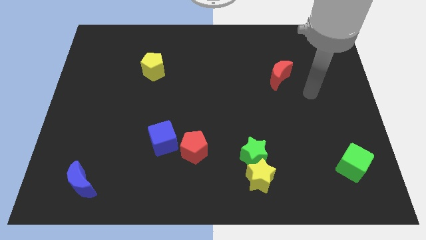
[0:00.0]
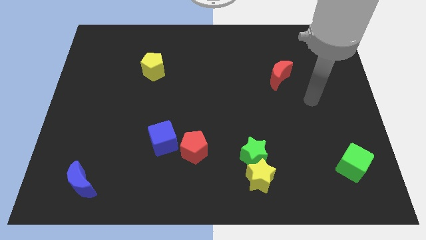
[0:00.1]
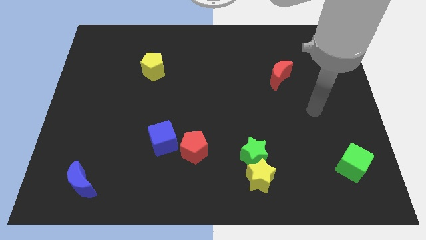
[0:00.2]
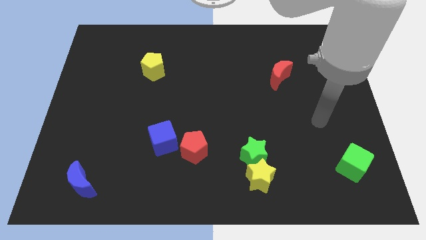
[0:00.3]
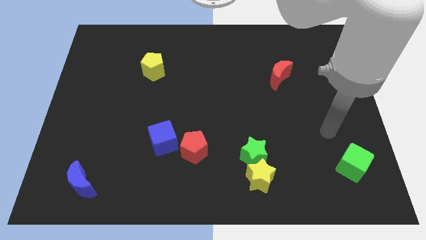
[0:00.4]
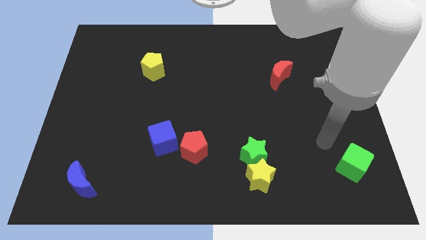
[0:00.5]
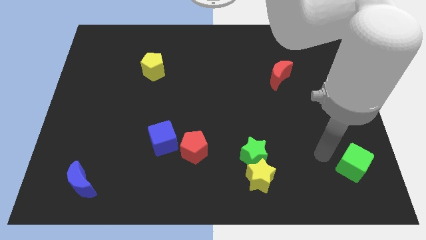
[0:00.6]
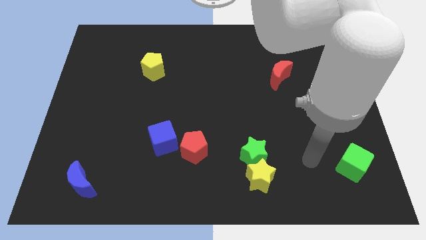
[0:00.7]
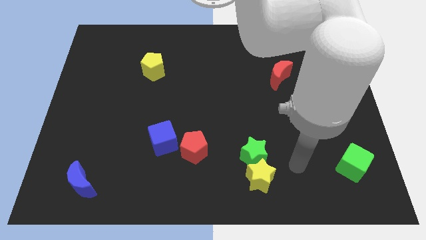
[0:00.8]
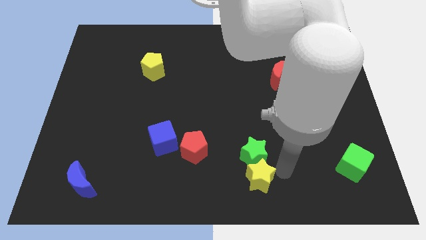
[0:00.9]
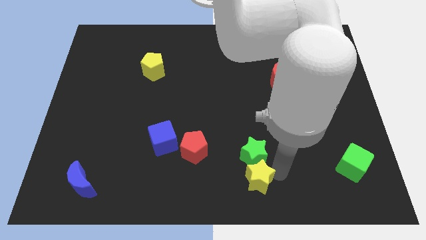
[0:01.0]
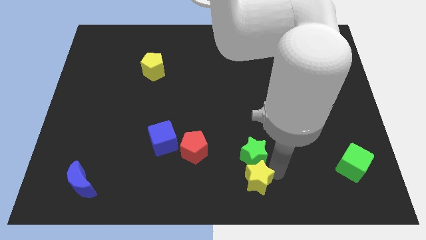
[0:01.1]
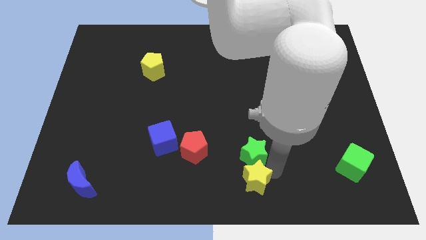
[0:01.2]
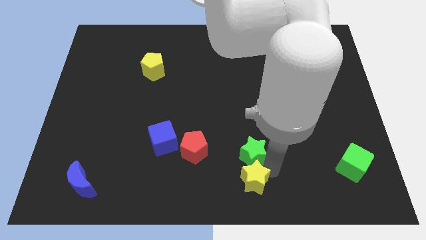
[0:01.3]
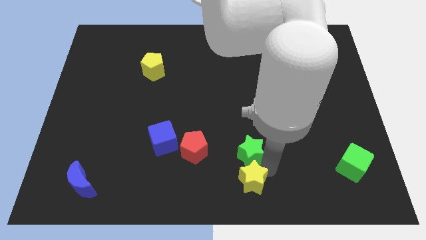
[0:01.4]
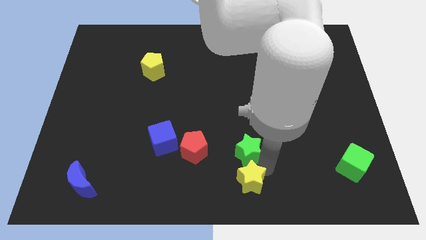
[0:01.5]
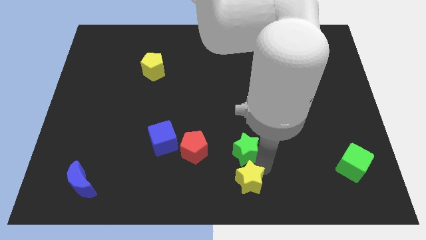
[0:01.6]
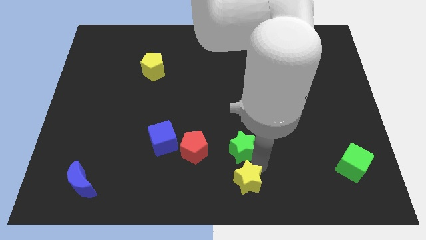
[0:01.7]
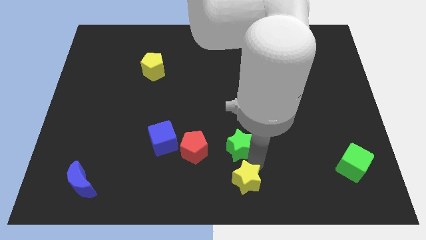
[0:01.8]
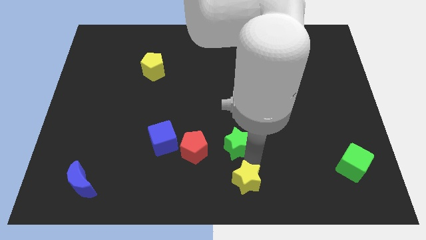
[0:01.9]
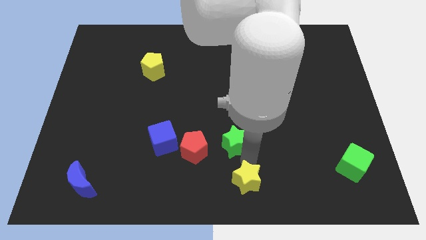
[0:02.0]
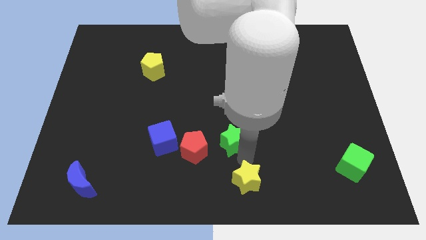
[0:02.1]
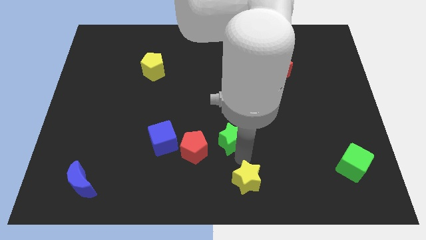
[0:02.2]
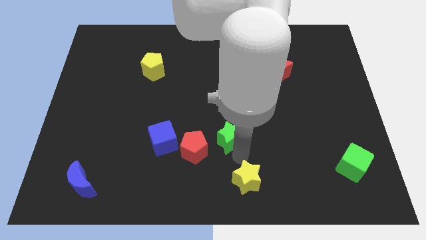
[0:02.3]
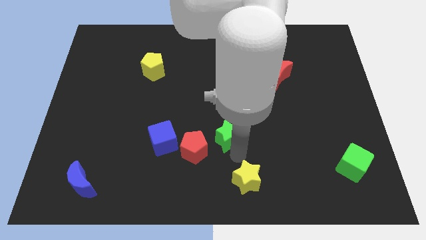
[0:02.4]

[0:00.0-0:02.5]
slightly push the green star diagonally up and left

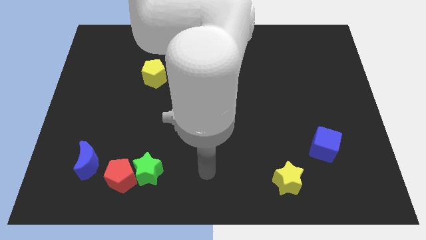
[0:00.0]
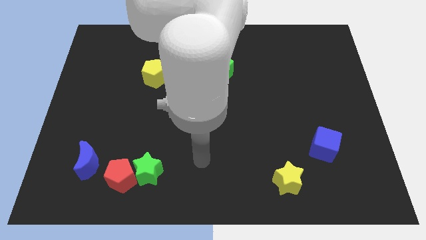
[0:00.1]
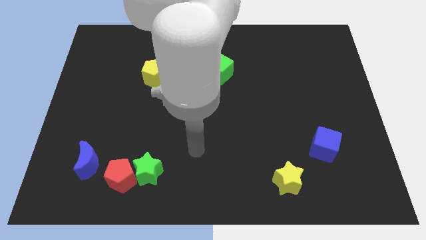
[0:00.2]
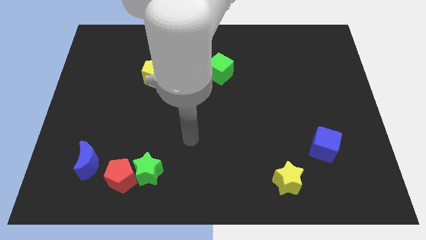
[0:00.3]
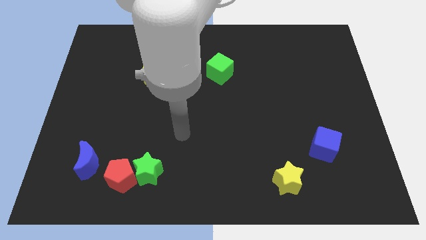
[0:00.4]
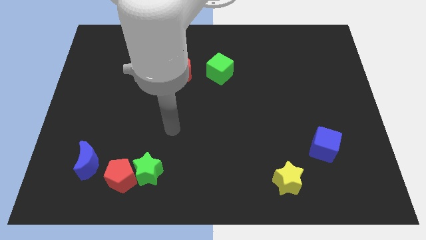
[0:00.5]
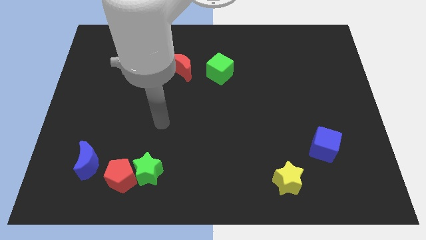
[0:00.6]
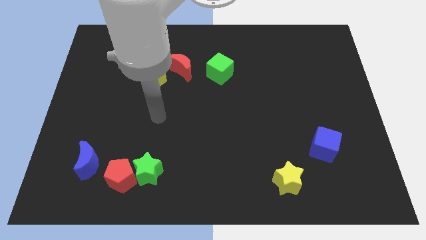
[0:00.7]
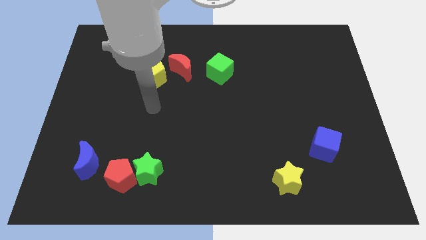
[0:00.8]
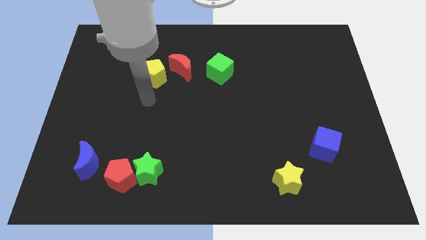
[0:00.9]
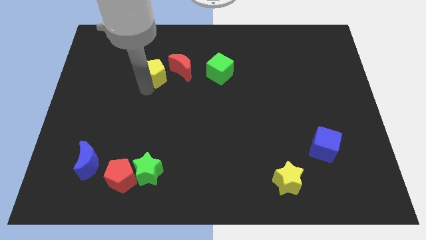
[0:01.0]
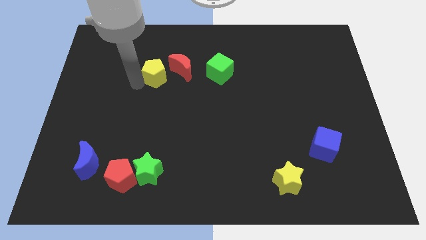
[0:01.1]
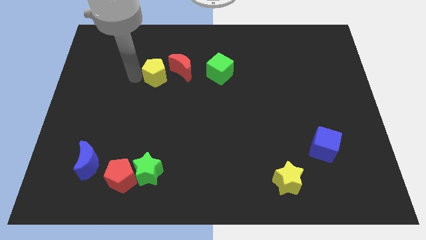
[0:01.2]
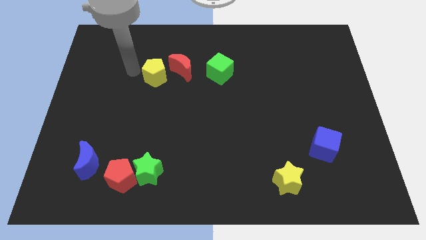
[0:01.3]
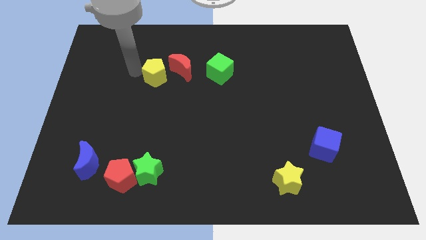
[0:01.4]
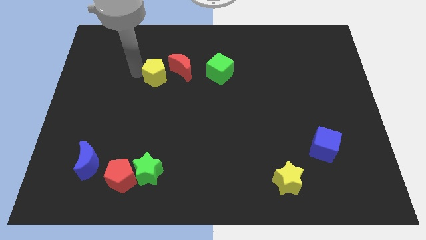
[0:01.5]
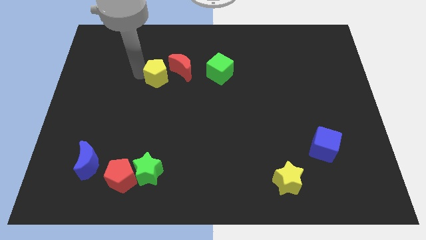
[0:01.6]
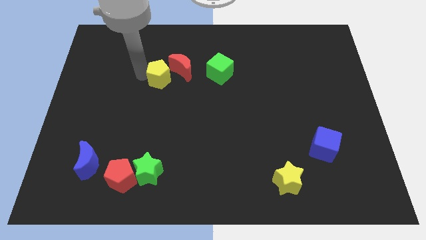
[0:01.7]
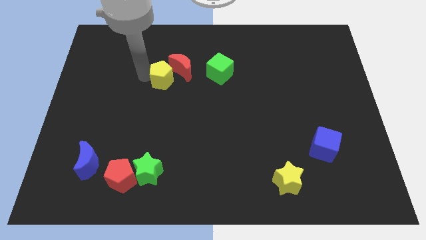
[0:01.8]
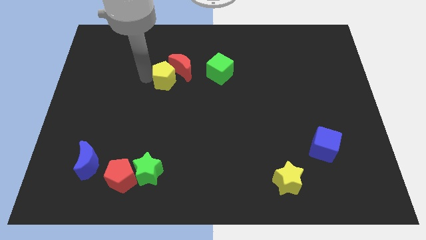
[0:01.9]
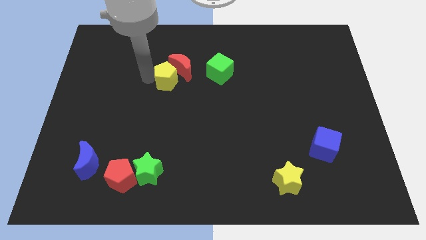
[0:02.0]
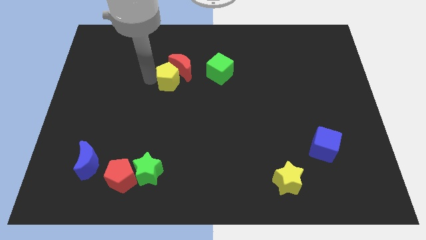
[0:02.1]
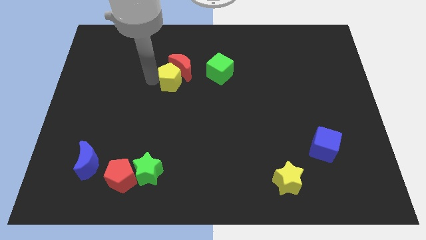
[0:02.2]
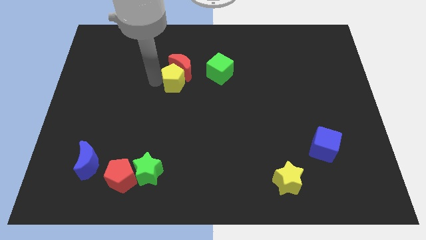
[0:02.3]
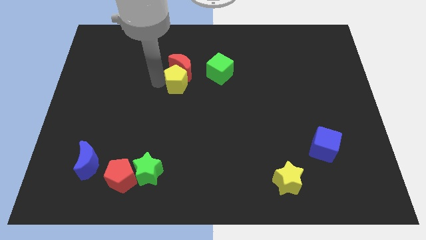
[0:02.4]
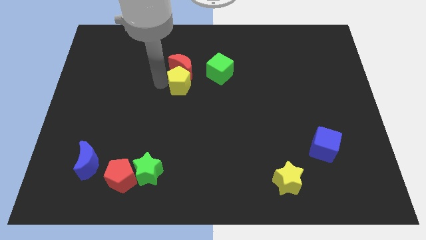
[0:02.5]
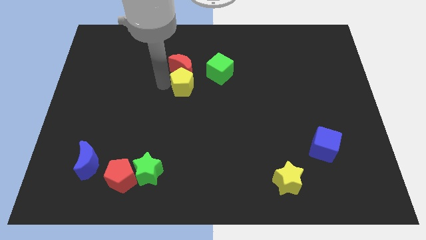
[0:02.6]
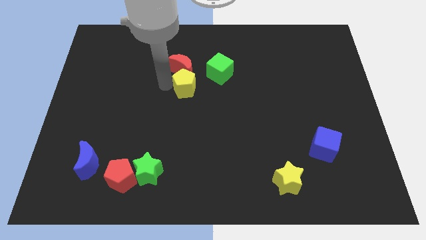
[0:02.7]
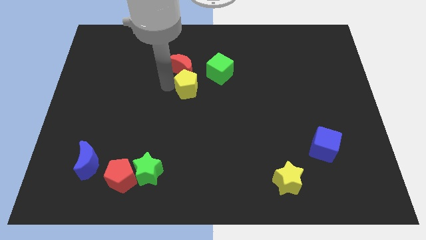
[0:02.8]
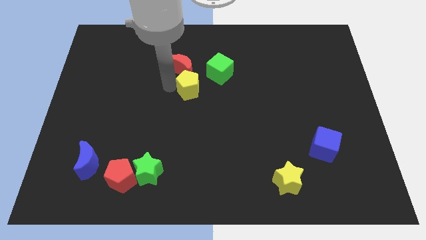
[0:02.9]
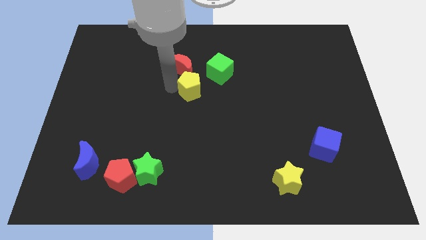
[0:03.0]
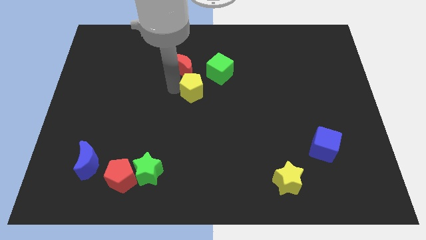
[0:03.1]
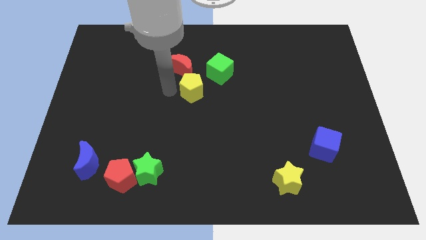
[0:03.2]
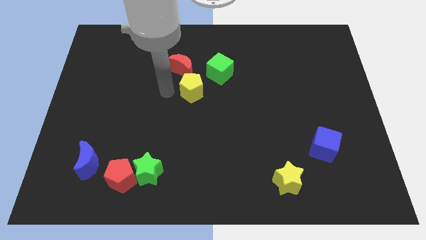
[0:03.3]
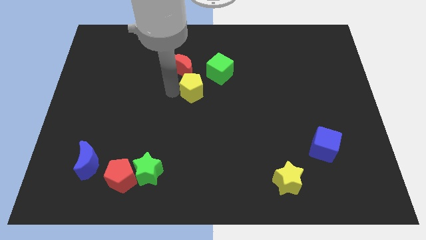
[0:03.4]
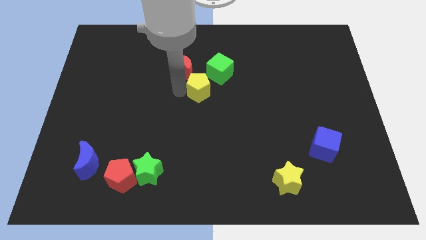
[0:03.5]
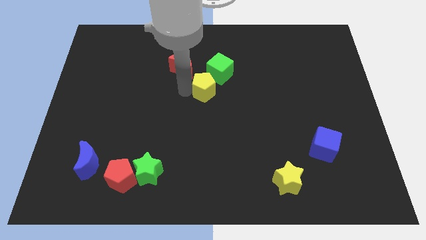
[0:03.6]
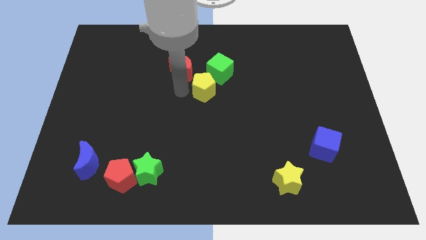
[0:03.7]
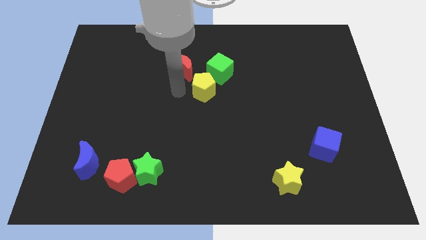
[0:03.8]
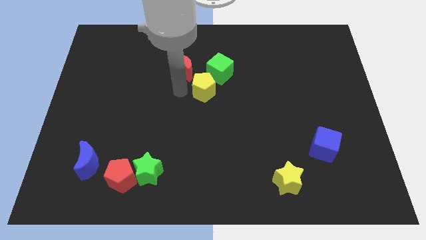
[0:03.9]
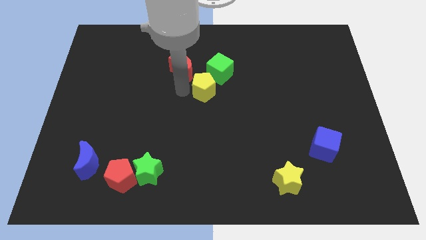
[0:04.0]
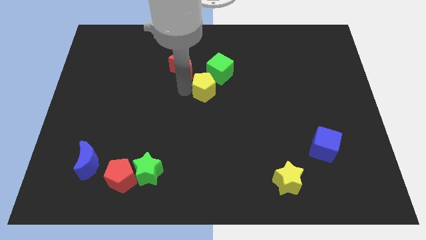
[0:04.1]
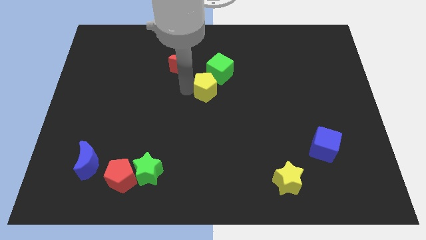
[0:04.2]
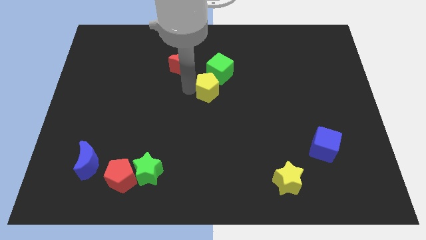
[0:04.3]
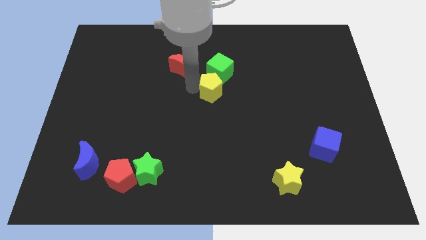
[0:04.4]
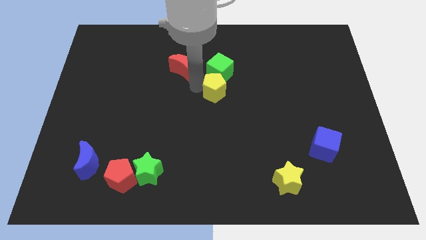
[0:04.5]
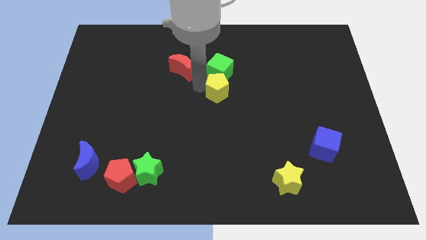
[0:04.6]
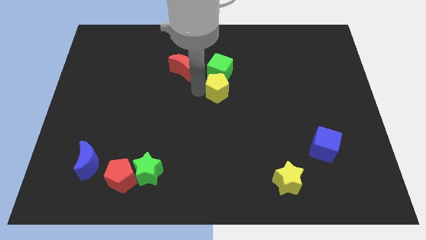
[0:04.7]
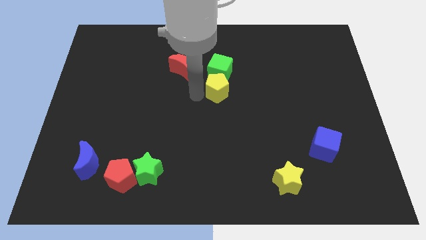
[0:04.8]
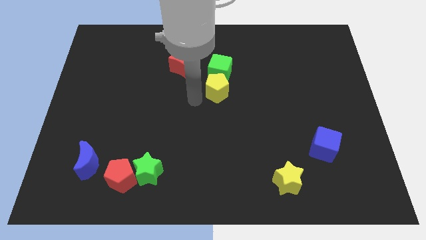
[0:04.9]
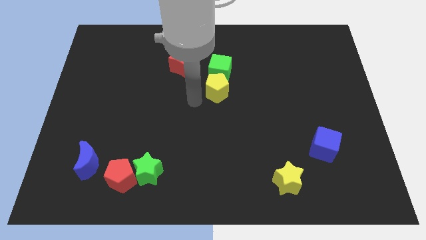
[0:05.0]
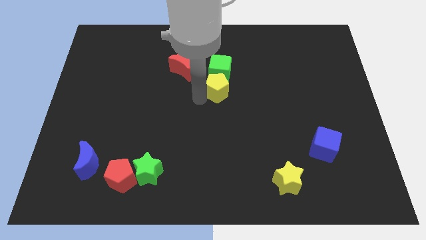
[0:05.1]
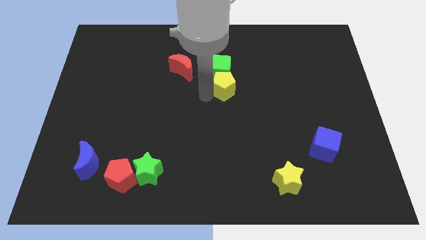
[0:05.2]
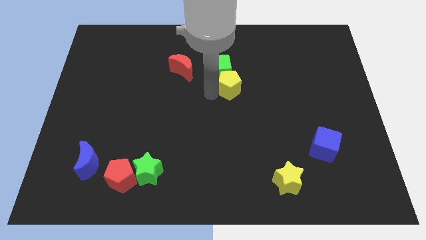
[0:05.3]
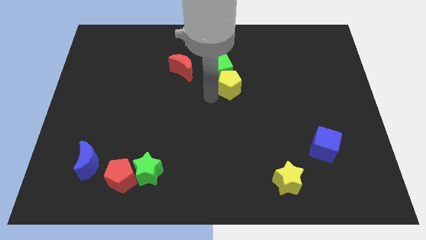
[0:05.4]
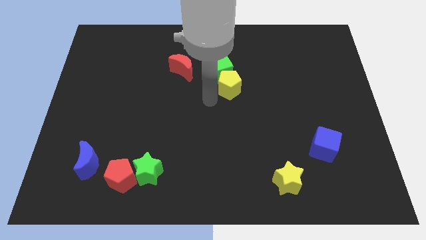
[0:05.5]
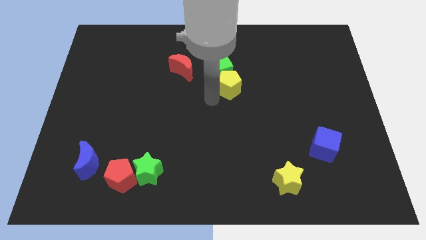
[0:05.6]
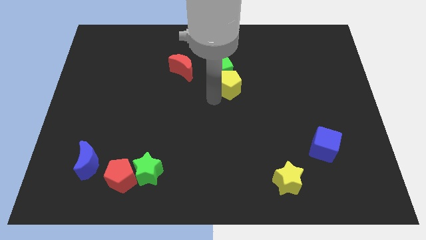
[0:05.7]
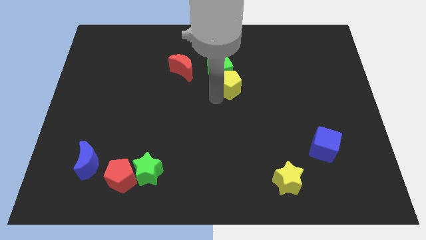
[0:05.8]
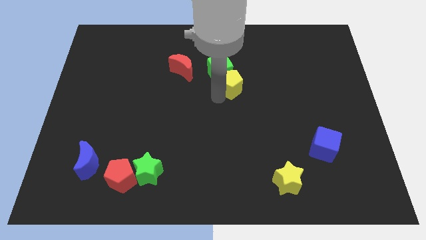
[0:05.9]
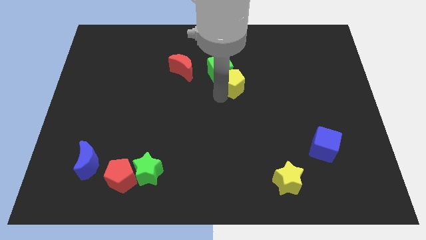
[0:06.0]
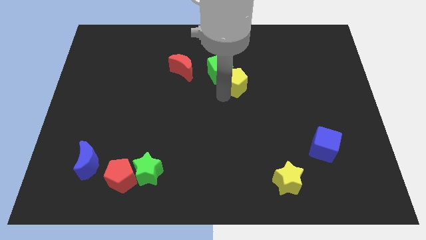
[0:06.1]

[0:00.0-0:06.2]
slide the yellow pentagon to the right
